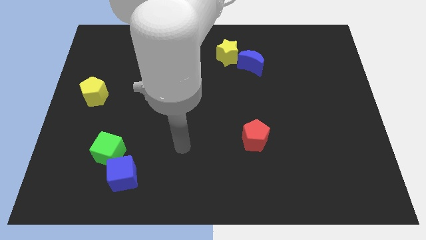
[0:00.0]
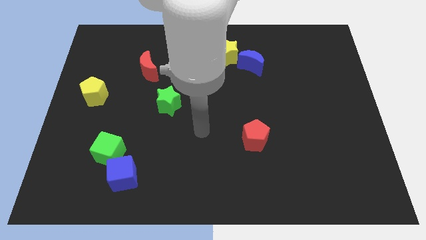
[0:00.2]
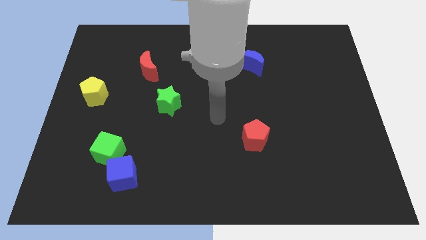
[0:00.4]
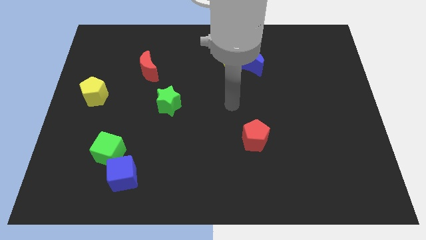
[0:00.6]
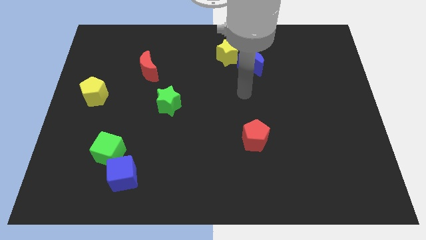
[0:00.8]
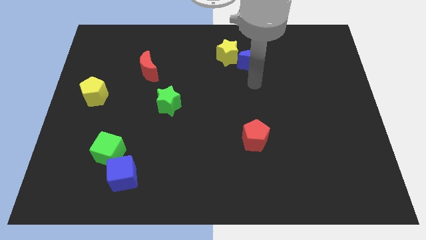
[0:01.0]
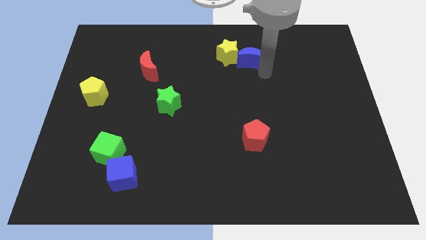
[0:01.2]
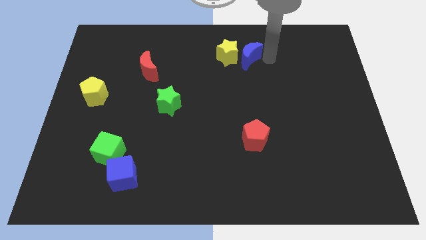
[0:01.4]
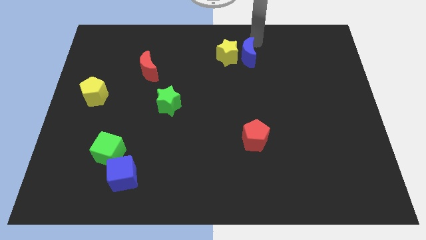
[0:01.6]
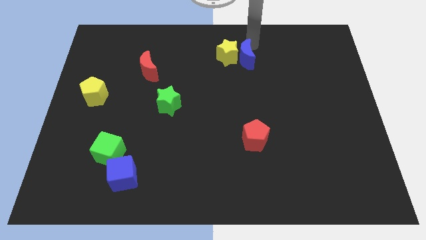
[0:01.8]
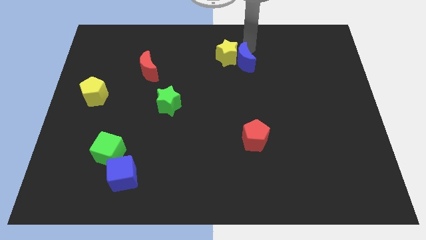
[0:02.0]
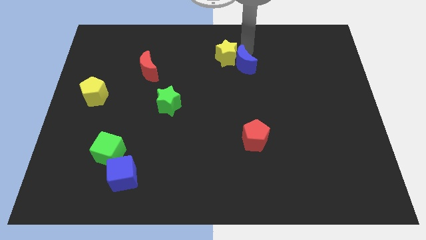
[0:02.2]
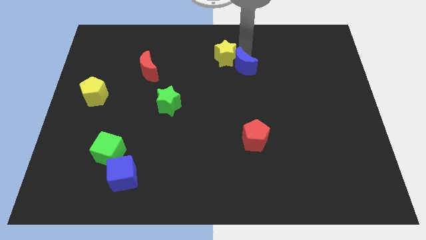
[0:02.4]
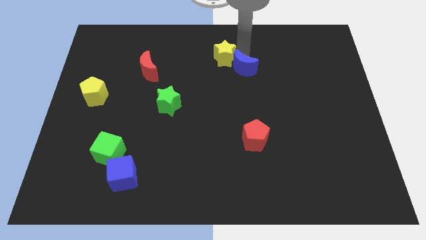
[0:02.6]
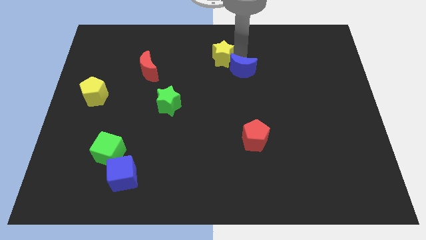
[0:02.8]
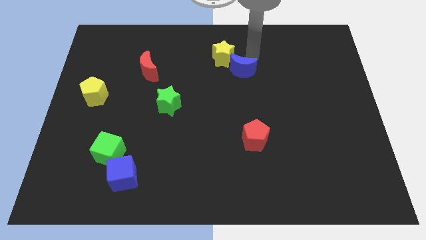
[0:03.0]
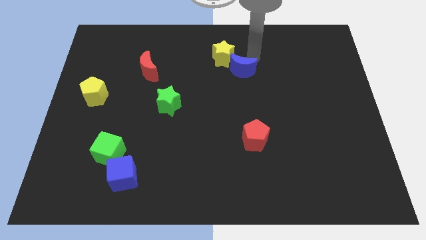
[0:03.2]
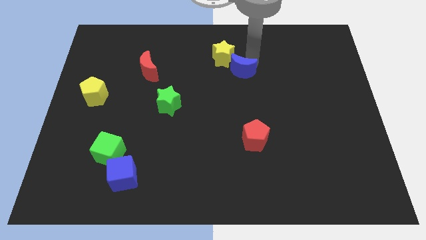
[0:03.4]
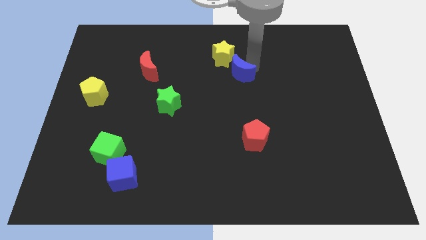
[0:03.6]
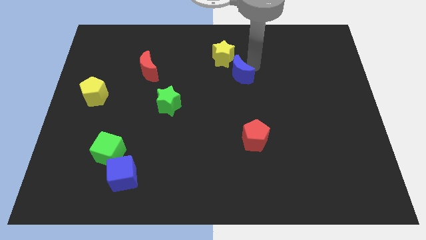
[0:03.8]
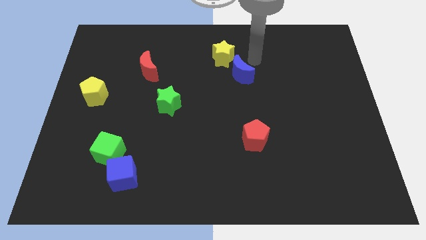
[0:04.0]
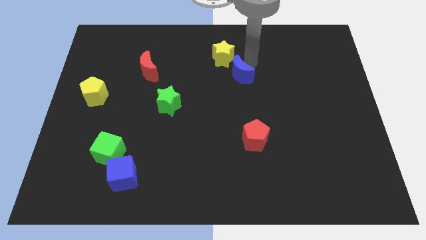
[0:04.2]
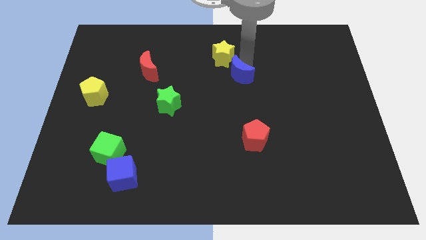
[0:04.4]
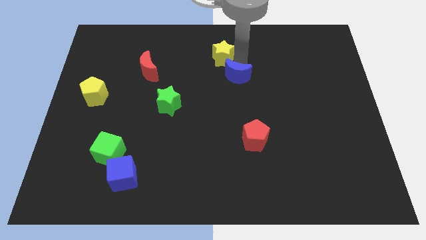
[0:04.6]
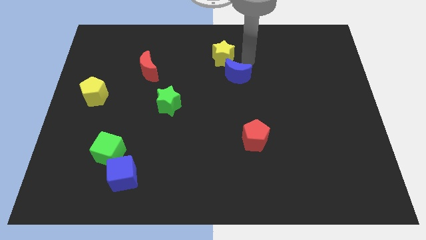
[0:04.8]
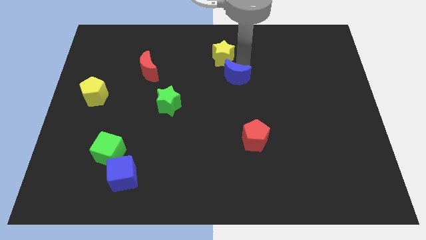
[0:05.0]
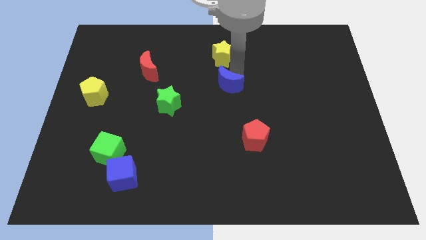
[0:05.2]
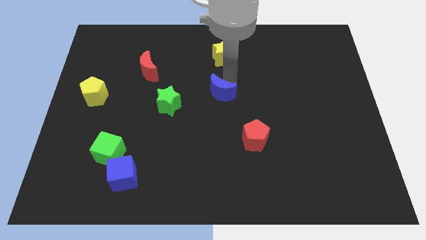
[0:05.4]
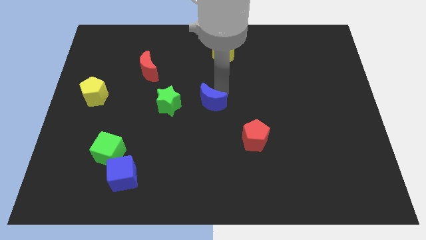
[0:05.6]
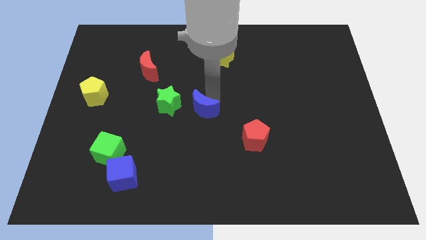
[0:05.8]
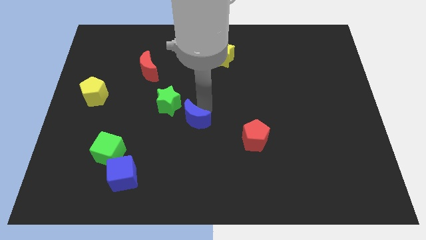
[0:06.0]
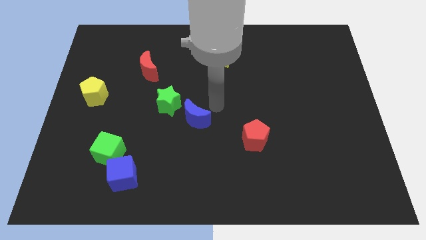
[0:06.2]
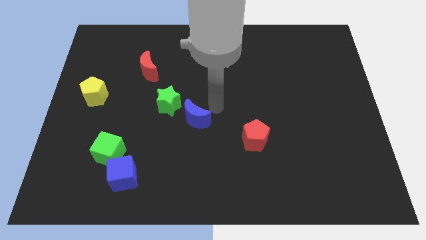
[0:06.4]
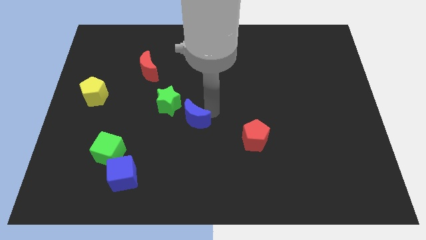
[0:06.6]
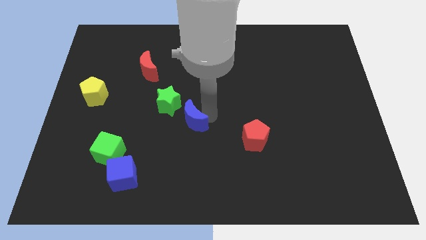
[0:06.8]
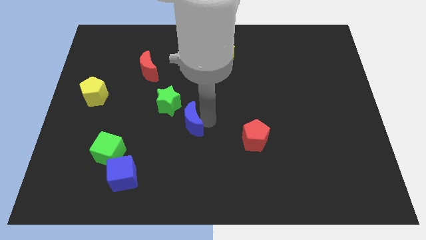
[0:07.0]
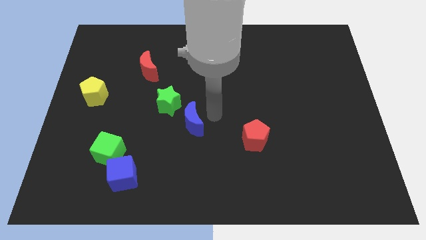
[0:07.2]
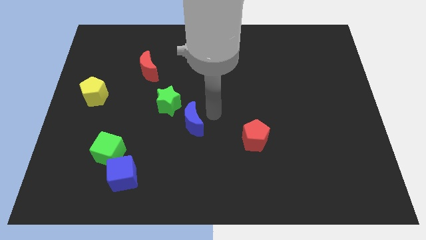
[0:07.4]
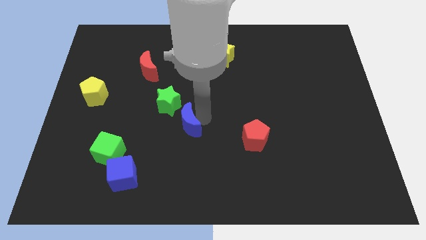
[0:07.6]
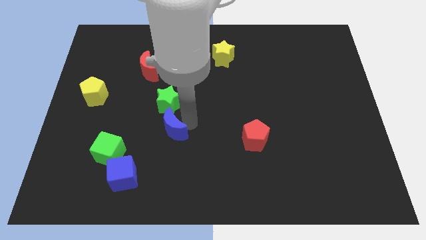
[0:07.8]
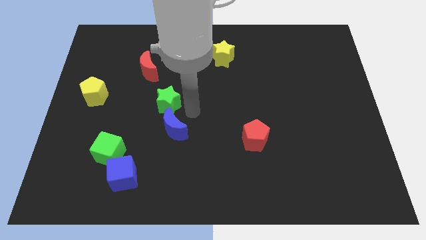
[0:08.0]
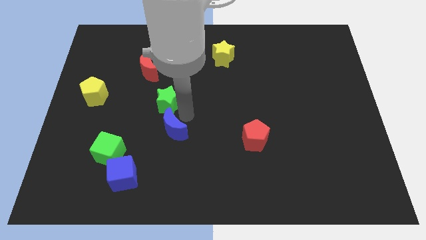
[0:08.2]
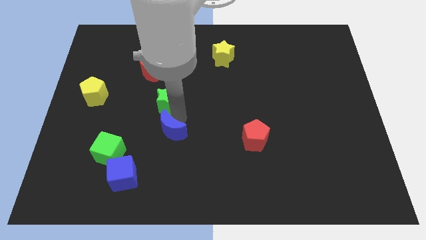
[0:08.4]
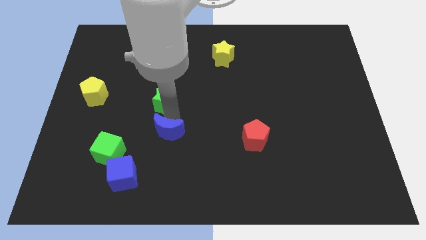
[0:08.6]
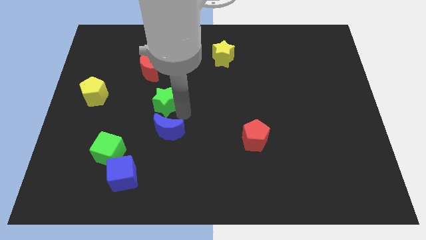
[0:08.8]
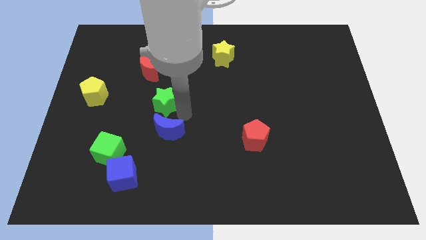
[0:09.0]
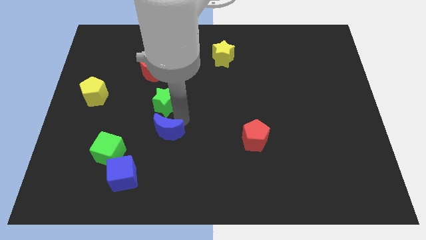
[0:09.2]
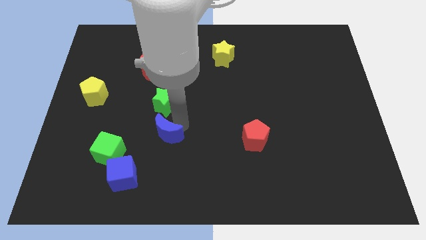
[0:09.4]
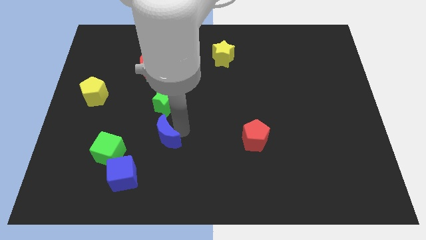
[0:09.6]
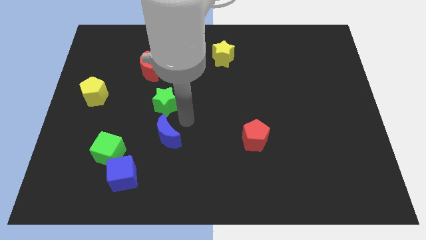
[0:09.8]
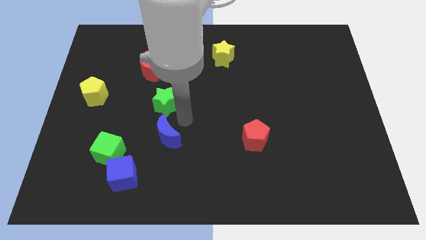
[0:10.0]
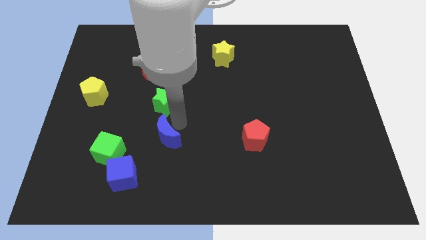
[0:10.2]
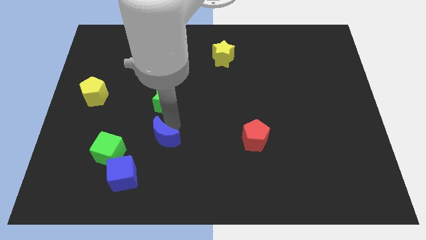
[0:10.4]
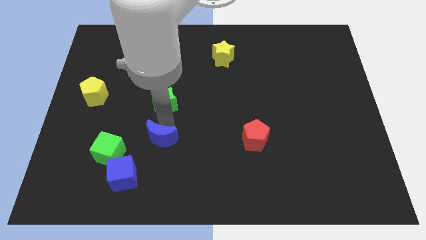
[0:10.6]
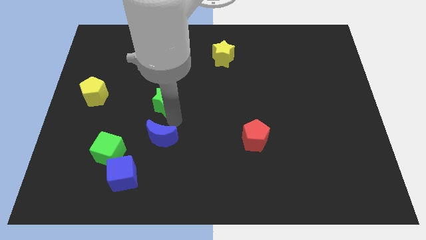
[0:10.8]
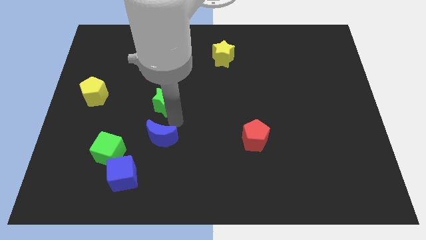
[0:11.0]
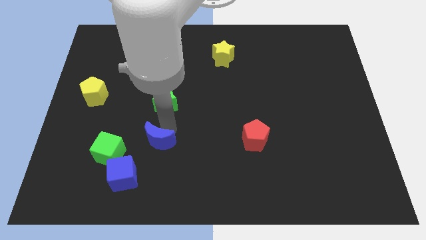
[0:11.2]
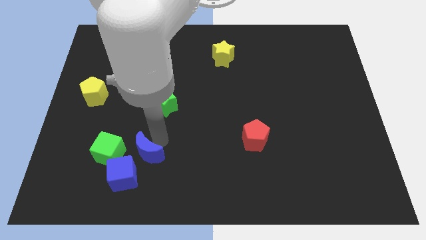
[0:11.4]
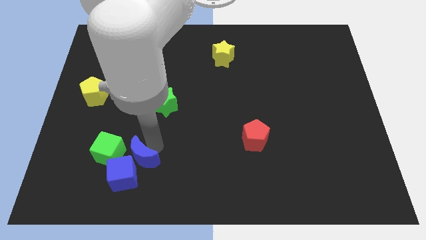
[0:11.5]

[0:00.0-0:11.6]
put the blue moon close to the blue cube

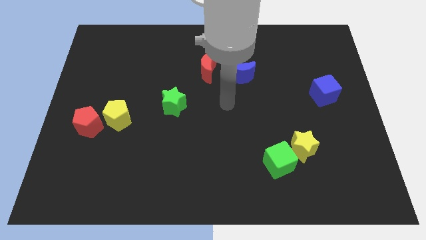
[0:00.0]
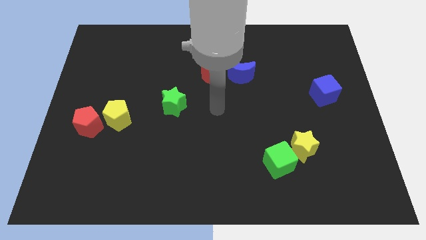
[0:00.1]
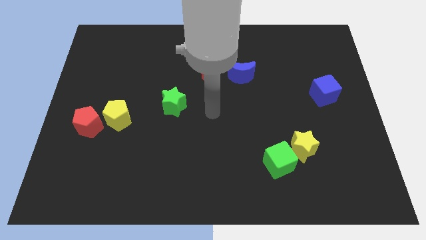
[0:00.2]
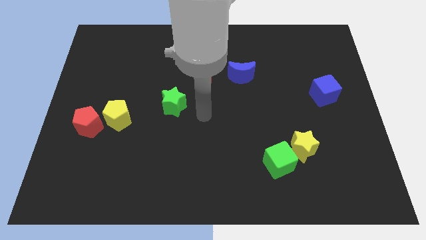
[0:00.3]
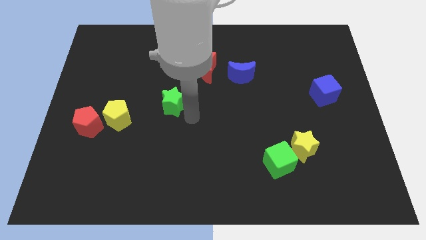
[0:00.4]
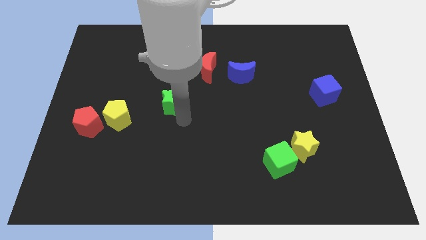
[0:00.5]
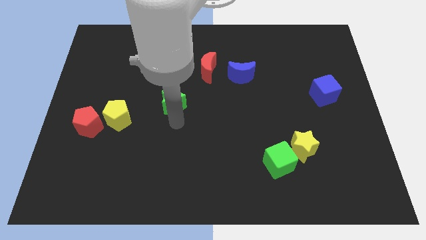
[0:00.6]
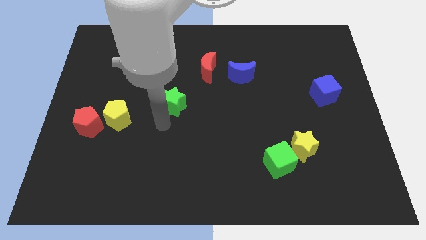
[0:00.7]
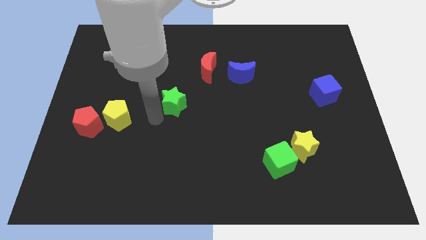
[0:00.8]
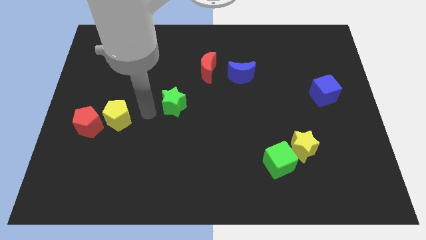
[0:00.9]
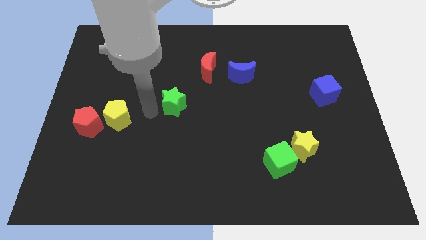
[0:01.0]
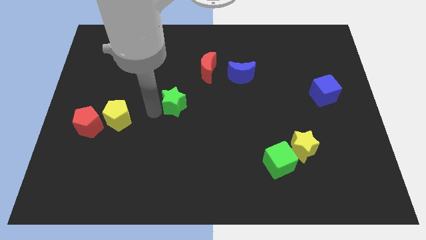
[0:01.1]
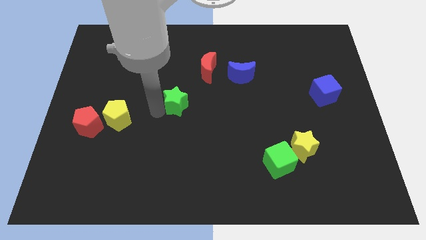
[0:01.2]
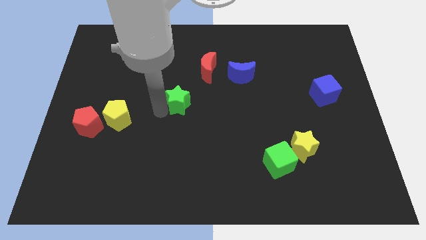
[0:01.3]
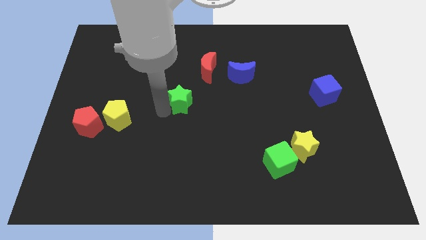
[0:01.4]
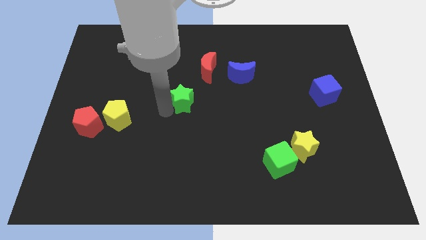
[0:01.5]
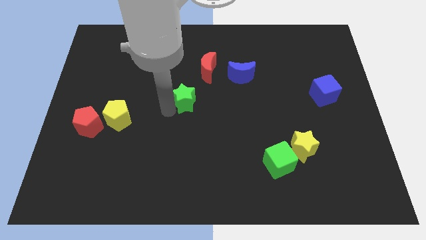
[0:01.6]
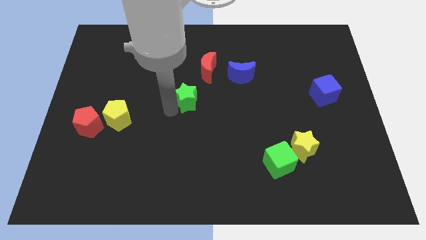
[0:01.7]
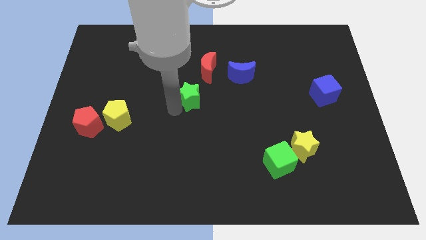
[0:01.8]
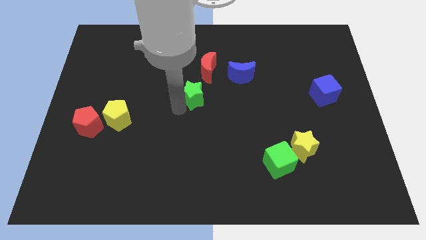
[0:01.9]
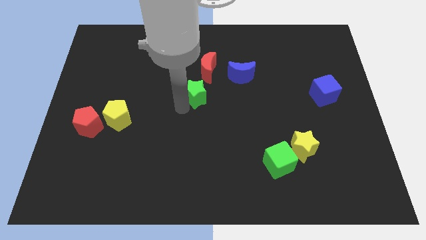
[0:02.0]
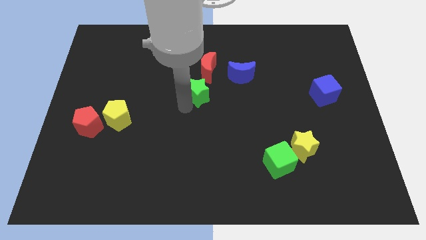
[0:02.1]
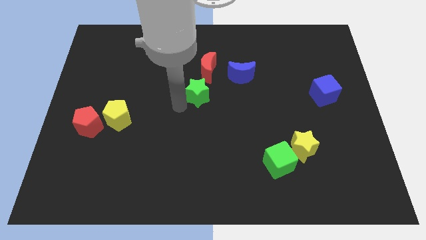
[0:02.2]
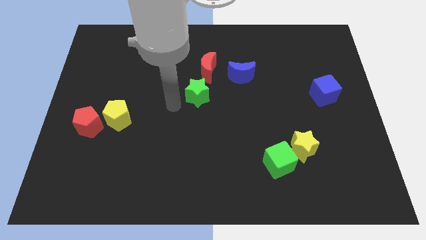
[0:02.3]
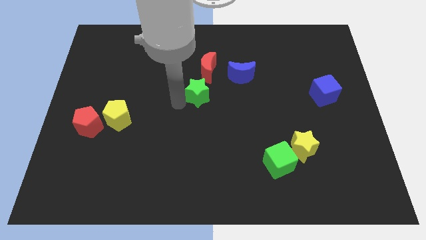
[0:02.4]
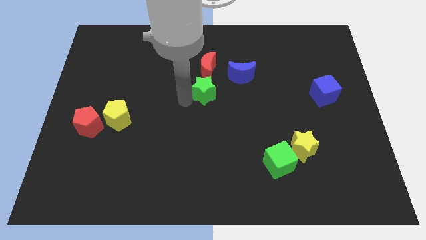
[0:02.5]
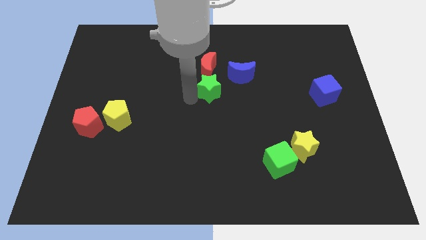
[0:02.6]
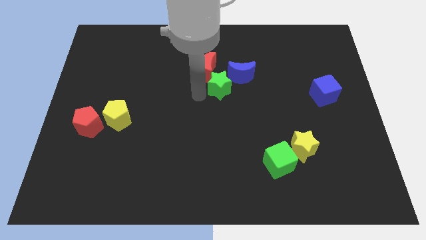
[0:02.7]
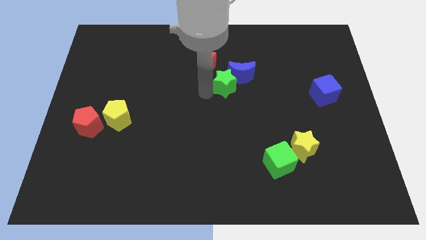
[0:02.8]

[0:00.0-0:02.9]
push the green star towards the blue moon
